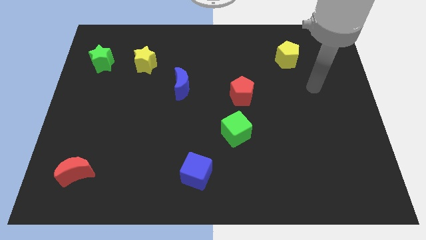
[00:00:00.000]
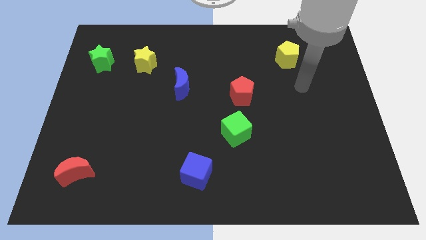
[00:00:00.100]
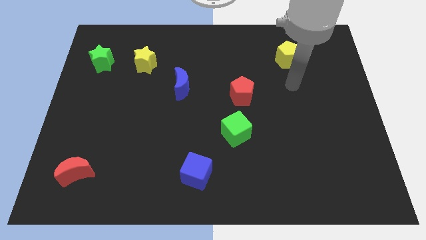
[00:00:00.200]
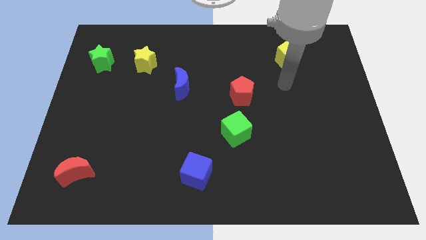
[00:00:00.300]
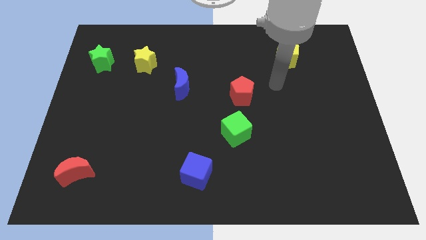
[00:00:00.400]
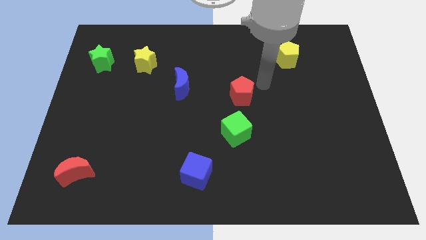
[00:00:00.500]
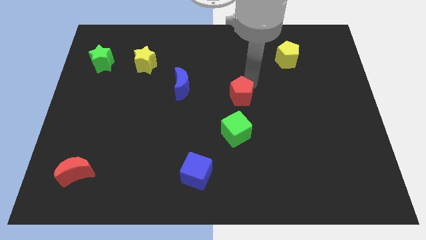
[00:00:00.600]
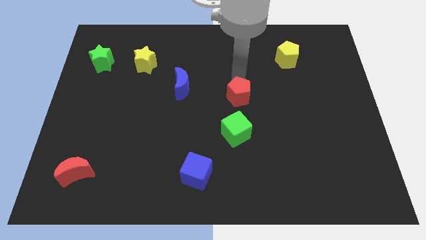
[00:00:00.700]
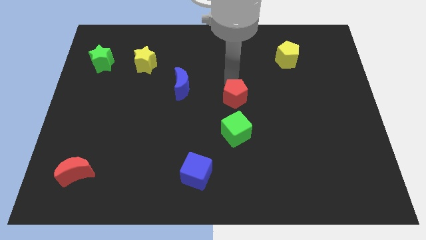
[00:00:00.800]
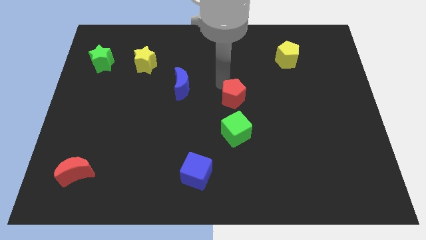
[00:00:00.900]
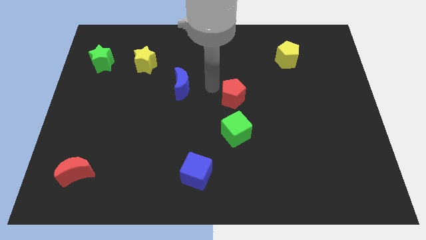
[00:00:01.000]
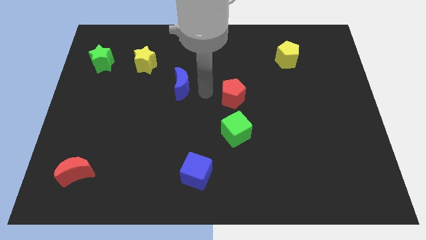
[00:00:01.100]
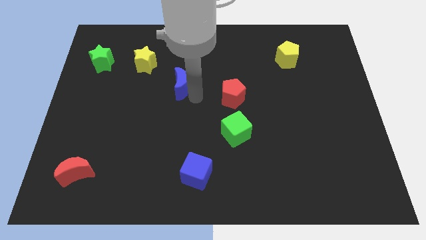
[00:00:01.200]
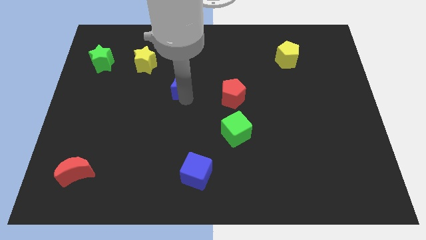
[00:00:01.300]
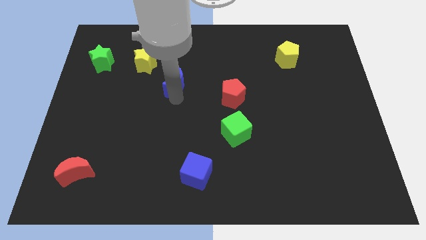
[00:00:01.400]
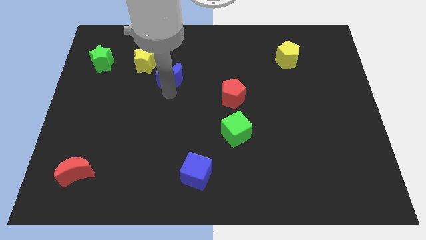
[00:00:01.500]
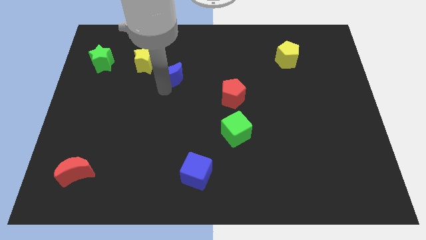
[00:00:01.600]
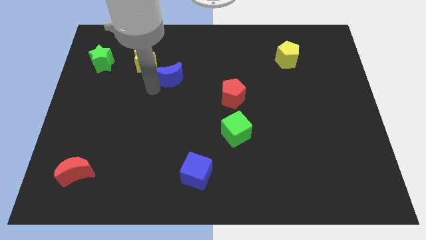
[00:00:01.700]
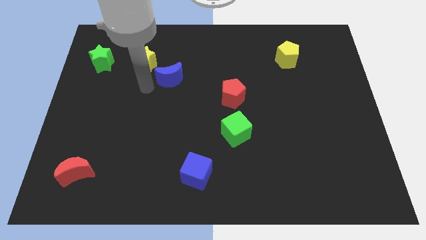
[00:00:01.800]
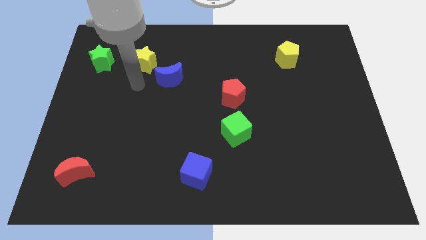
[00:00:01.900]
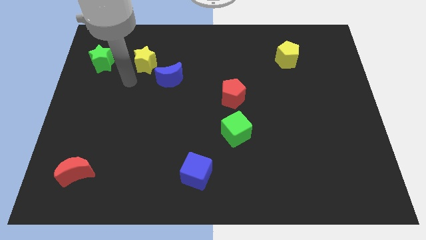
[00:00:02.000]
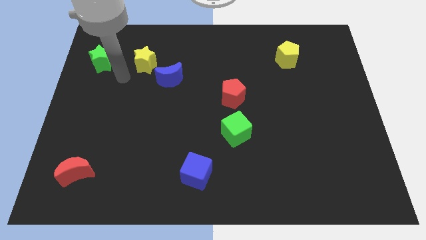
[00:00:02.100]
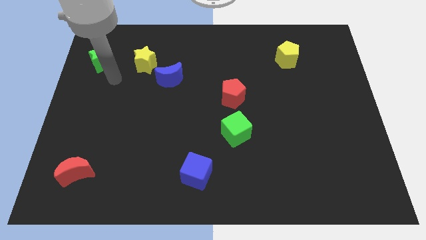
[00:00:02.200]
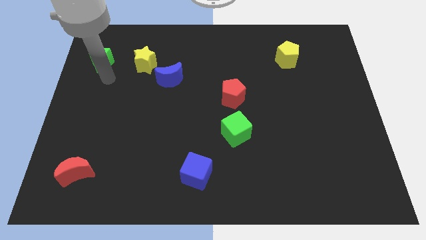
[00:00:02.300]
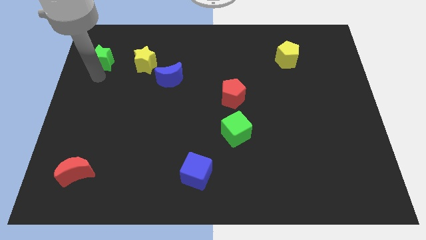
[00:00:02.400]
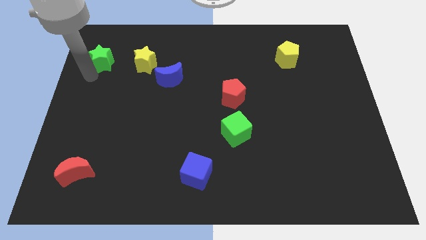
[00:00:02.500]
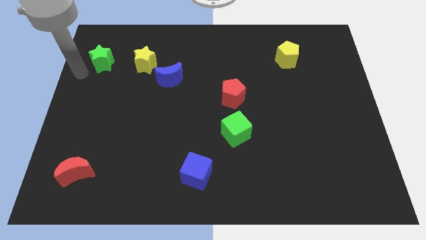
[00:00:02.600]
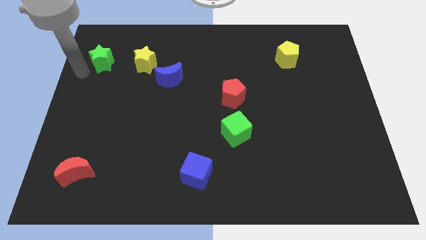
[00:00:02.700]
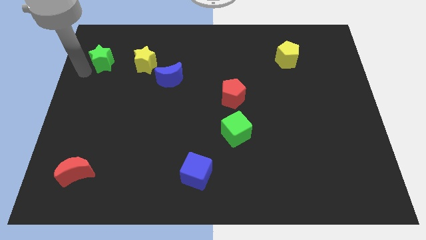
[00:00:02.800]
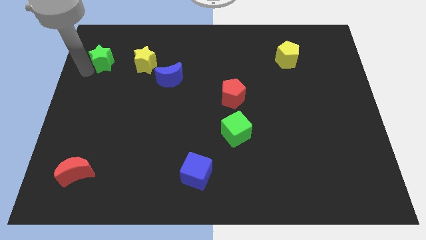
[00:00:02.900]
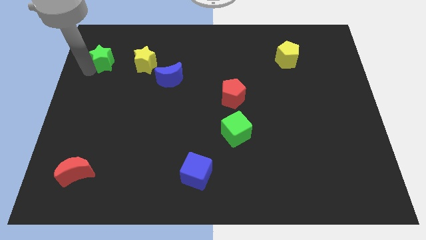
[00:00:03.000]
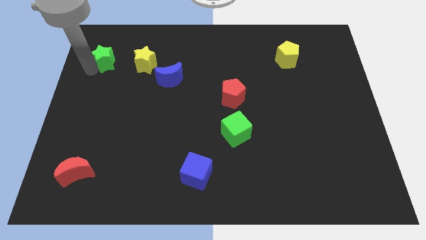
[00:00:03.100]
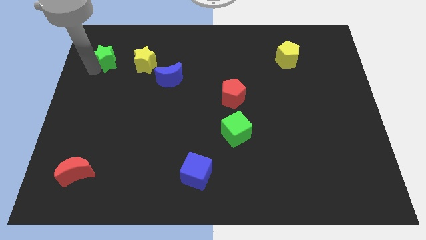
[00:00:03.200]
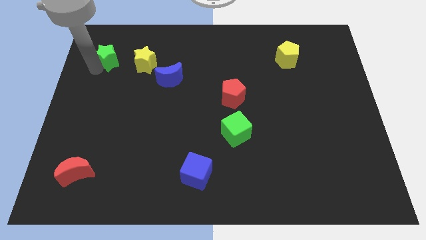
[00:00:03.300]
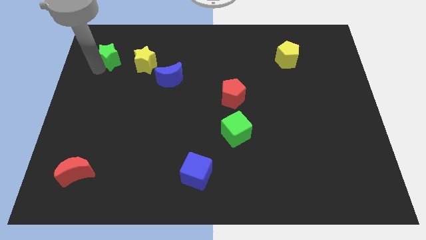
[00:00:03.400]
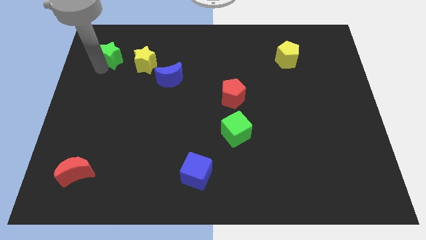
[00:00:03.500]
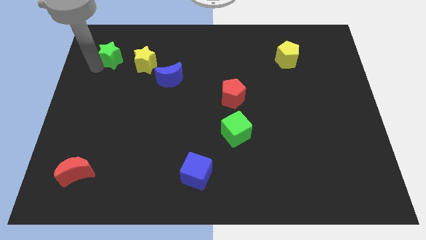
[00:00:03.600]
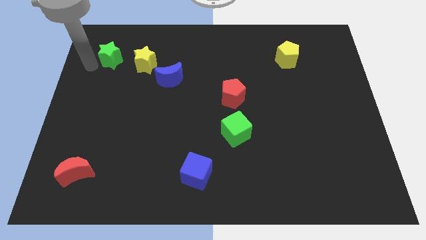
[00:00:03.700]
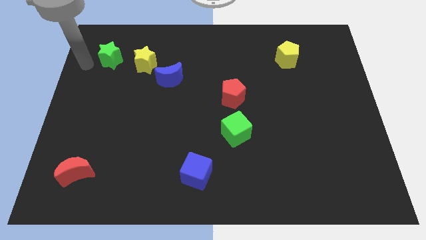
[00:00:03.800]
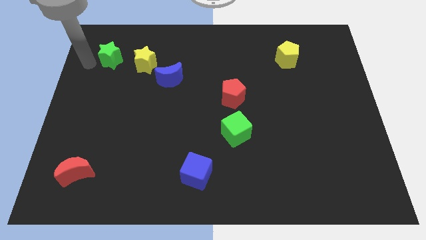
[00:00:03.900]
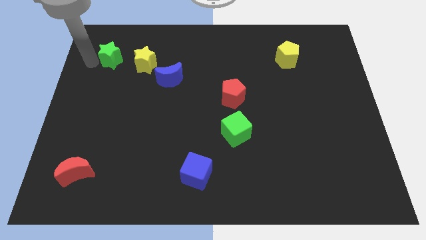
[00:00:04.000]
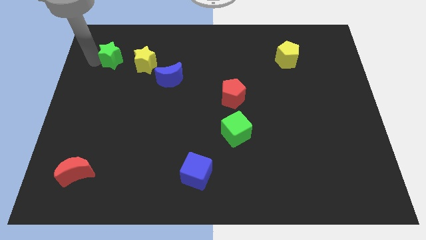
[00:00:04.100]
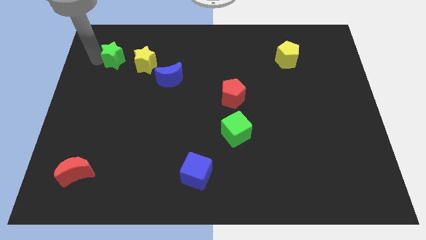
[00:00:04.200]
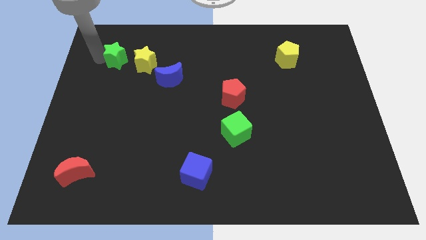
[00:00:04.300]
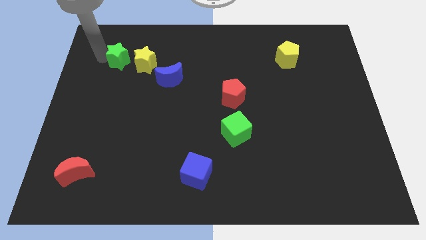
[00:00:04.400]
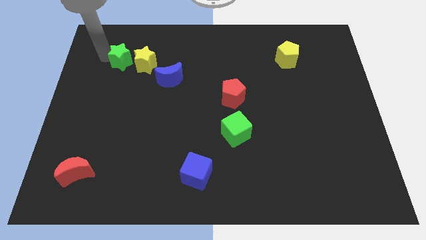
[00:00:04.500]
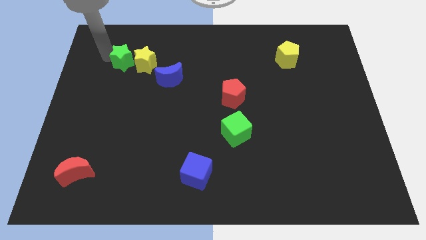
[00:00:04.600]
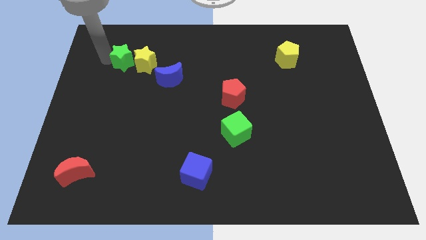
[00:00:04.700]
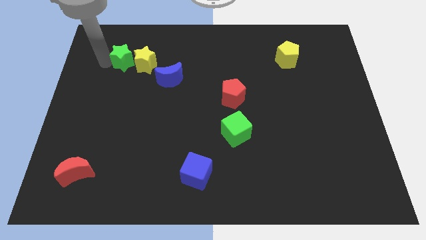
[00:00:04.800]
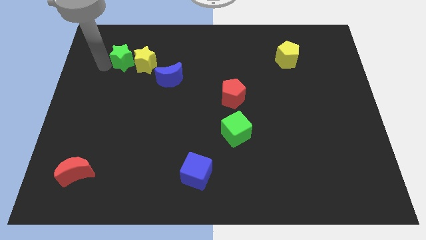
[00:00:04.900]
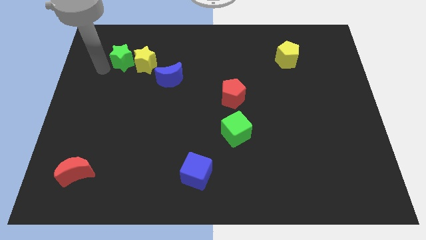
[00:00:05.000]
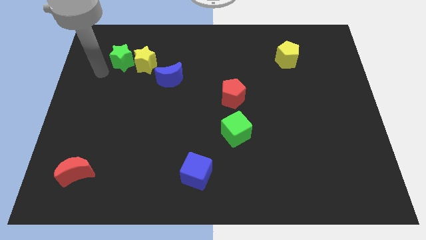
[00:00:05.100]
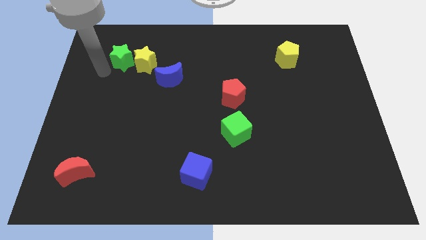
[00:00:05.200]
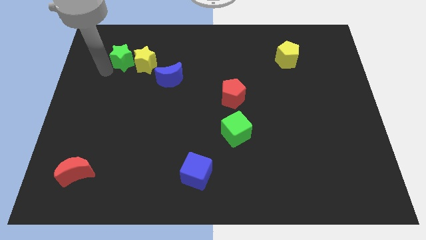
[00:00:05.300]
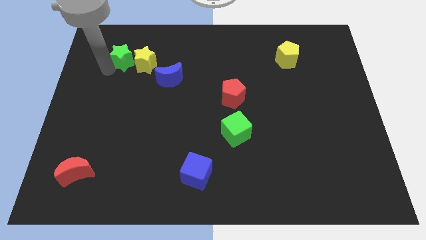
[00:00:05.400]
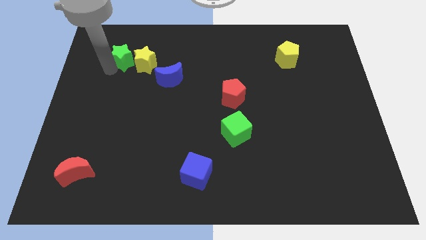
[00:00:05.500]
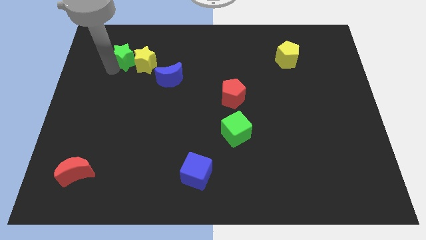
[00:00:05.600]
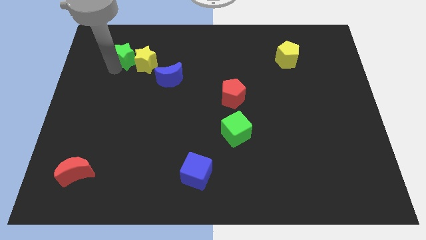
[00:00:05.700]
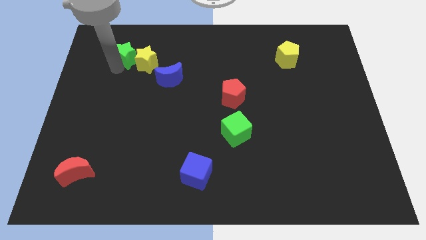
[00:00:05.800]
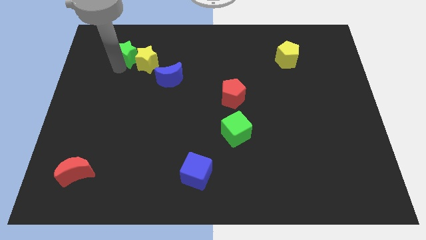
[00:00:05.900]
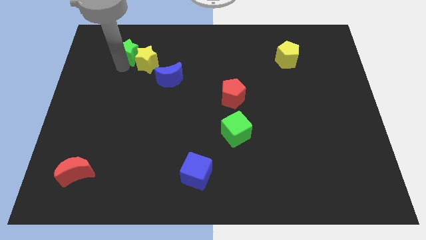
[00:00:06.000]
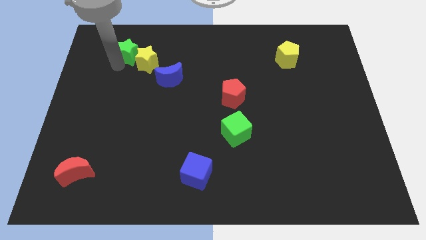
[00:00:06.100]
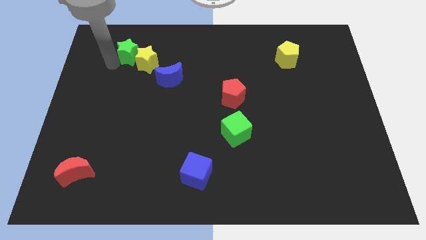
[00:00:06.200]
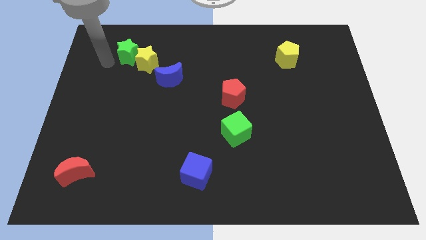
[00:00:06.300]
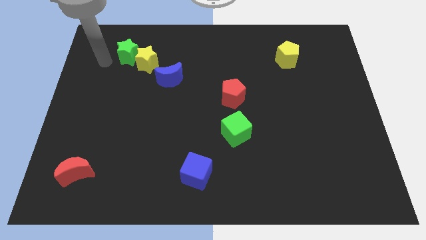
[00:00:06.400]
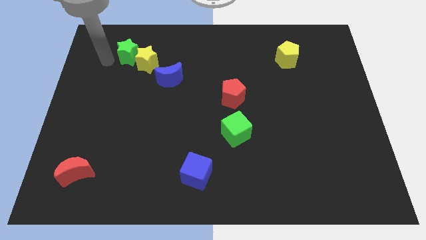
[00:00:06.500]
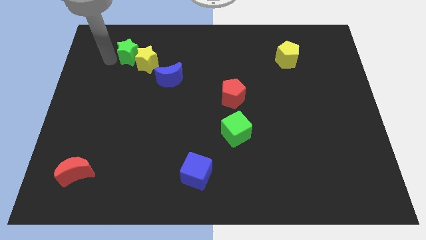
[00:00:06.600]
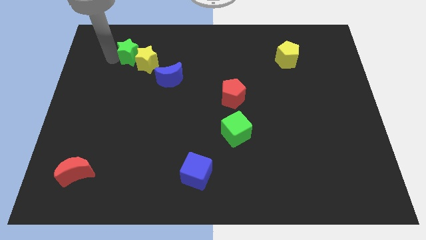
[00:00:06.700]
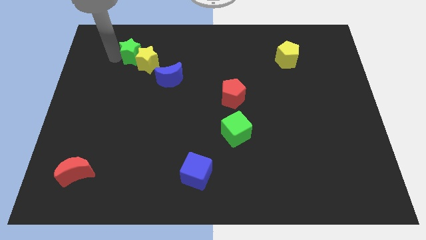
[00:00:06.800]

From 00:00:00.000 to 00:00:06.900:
slightly slide the green star to the right

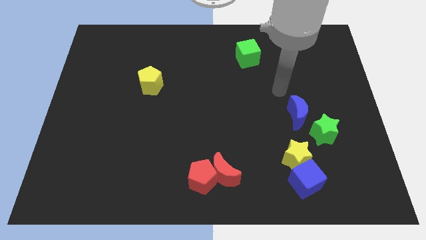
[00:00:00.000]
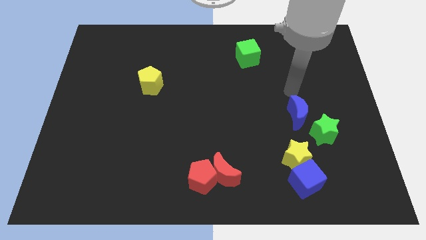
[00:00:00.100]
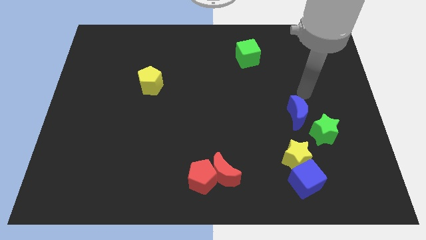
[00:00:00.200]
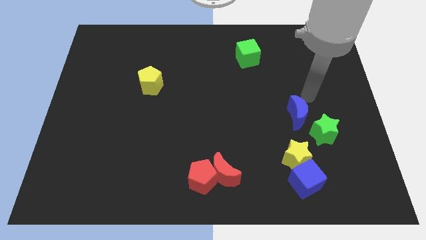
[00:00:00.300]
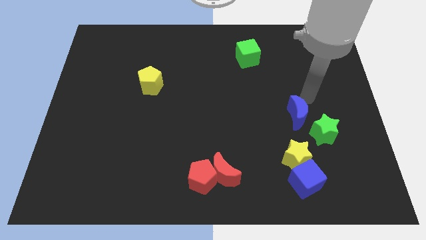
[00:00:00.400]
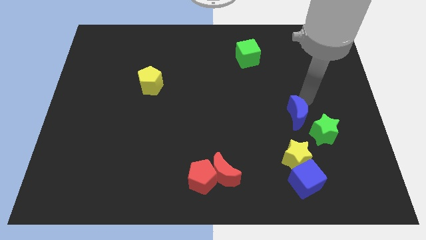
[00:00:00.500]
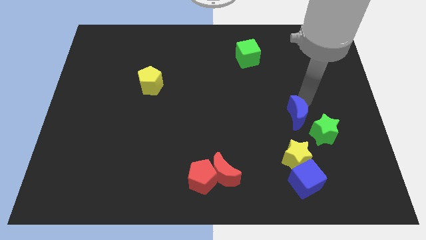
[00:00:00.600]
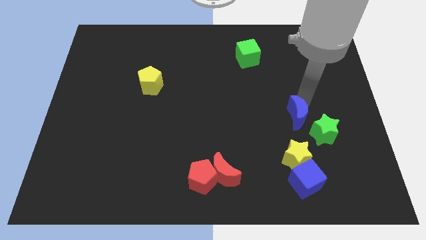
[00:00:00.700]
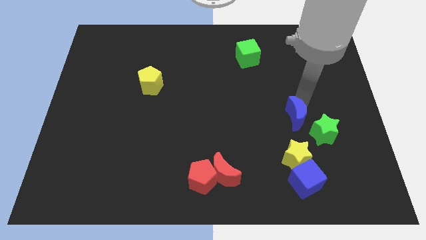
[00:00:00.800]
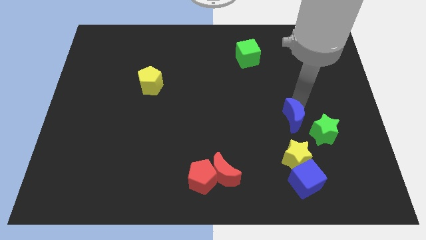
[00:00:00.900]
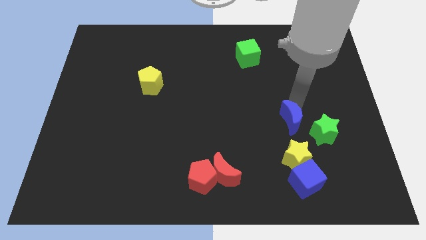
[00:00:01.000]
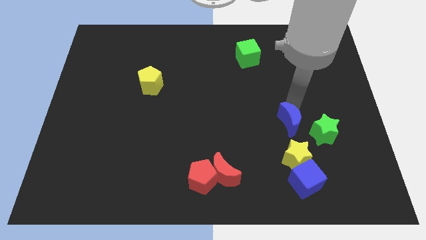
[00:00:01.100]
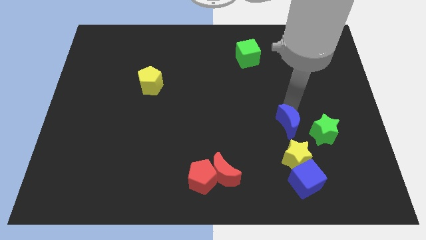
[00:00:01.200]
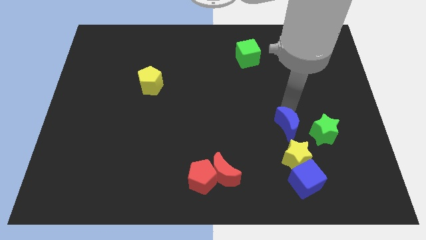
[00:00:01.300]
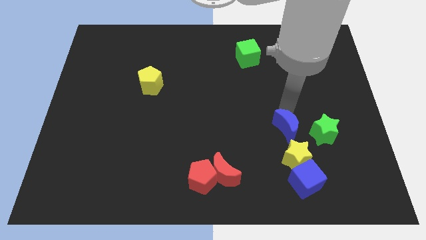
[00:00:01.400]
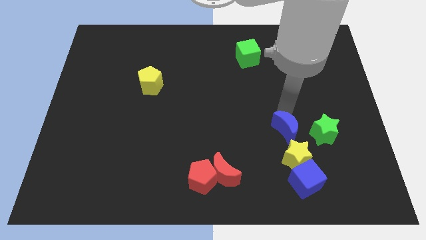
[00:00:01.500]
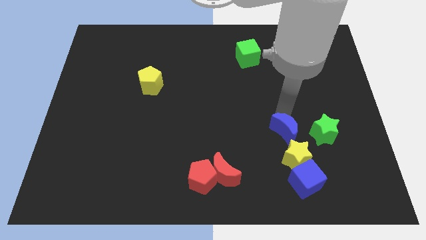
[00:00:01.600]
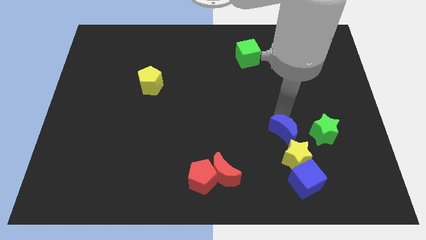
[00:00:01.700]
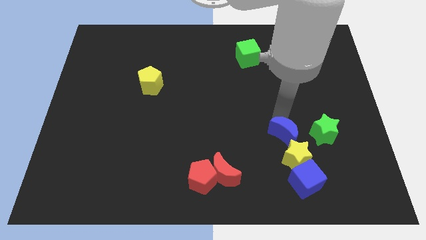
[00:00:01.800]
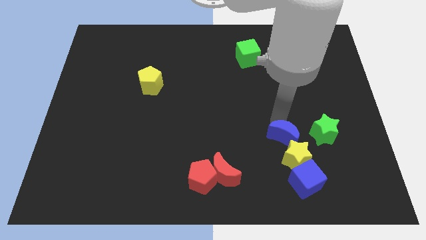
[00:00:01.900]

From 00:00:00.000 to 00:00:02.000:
slide the blue moon downwards and left diagonally slightly
